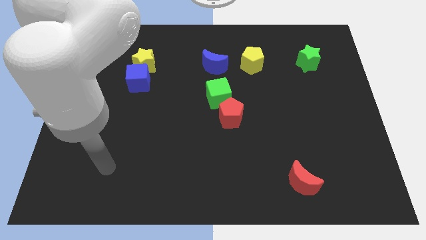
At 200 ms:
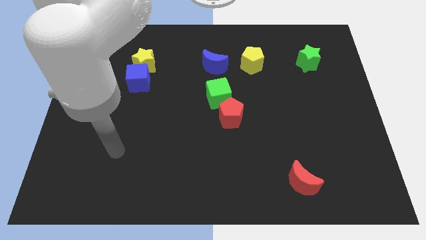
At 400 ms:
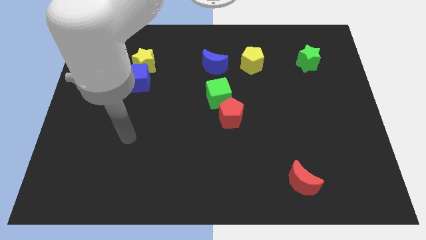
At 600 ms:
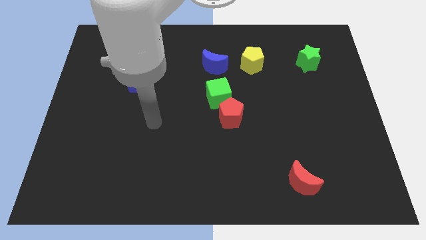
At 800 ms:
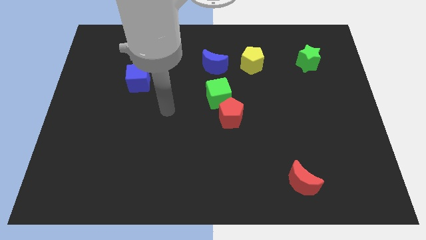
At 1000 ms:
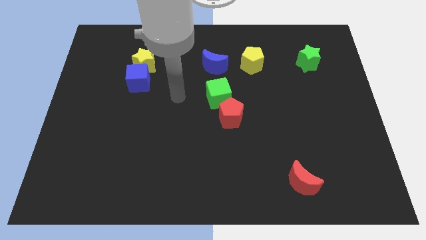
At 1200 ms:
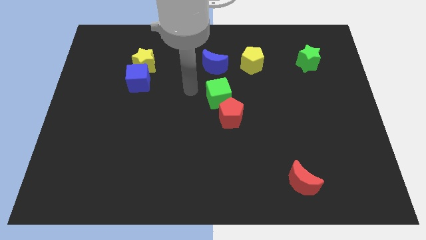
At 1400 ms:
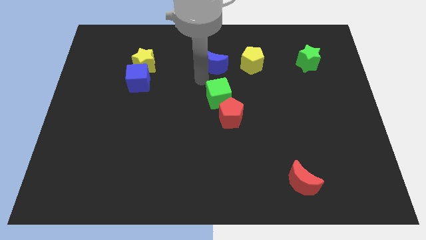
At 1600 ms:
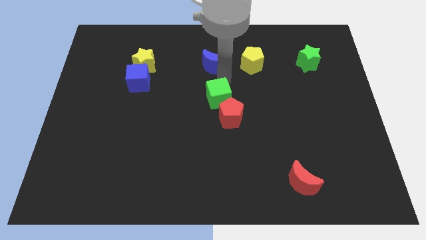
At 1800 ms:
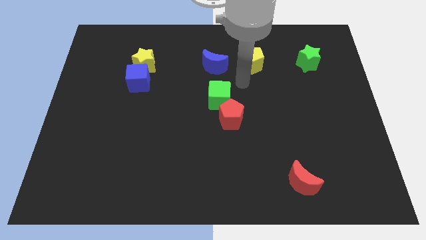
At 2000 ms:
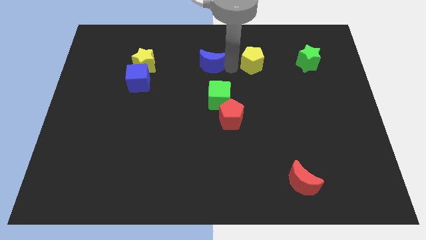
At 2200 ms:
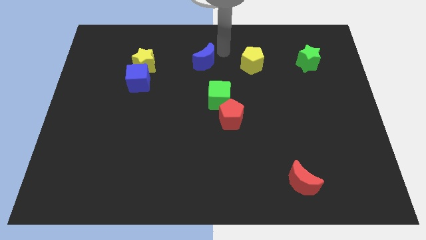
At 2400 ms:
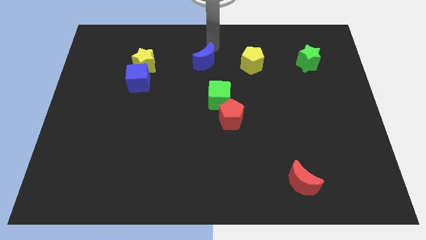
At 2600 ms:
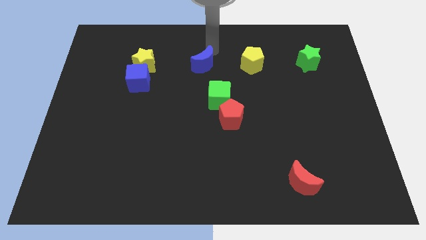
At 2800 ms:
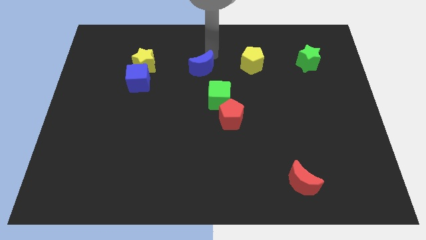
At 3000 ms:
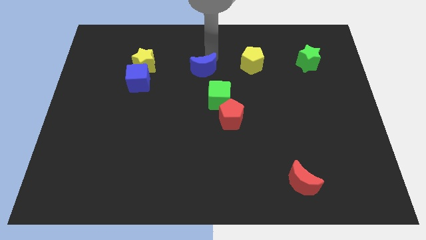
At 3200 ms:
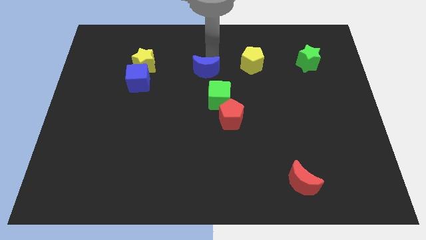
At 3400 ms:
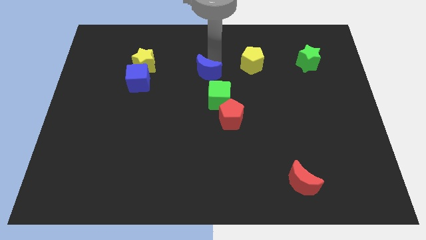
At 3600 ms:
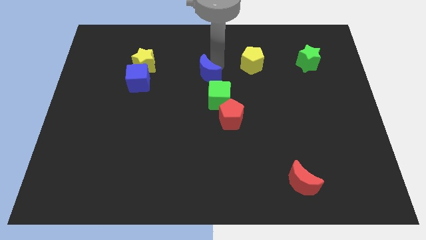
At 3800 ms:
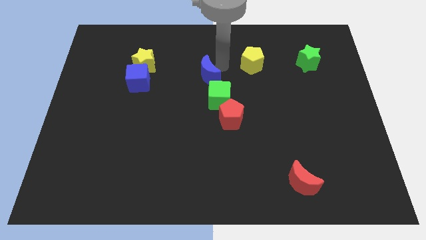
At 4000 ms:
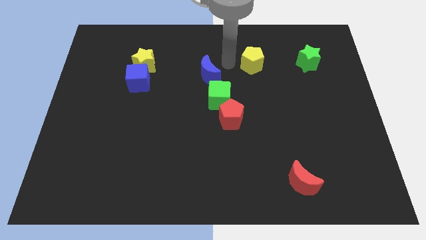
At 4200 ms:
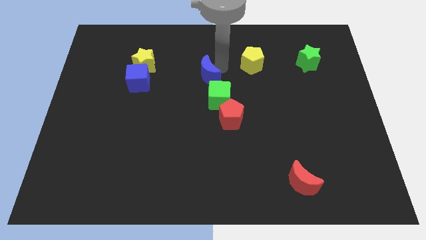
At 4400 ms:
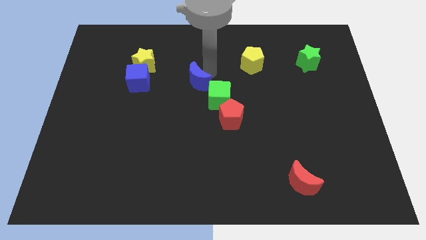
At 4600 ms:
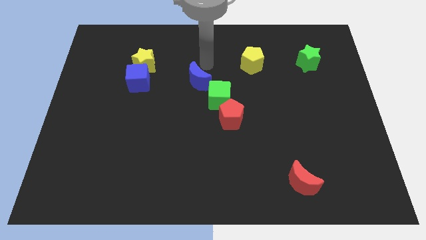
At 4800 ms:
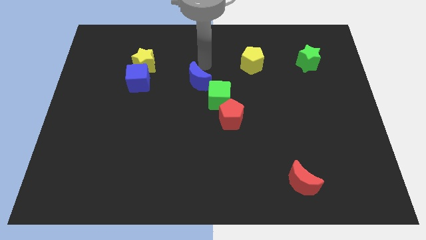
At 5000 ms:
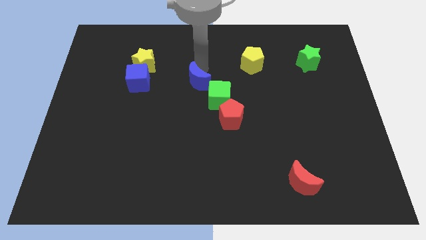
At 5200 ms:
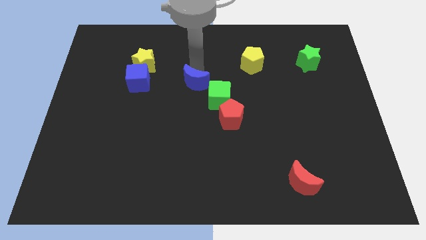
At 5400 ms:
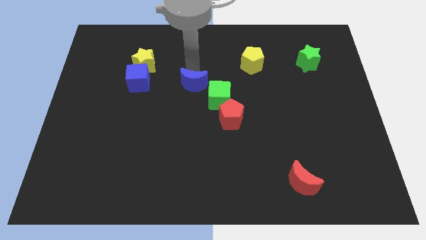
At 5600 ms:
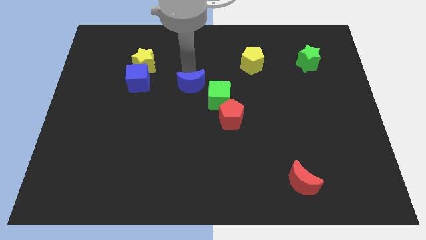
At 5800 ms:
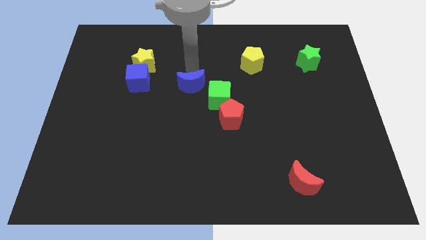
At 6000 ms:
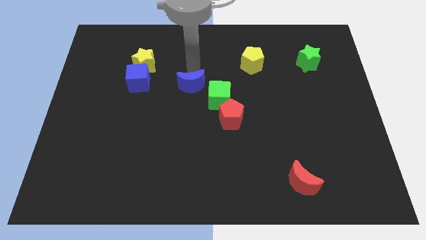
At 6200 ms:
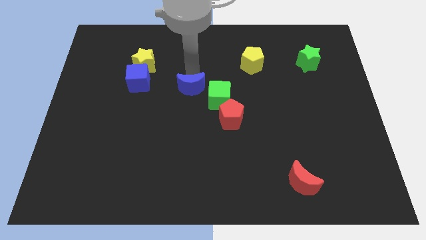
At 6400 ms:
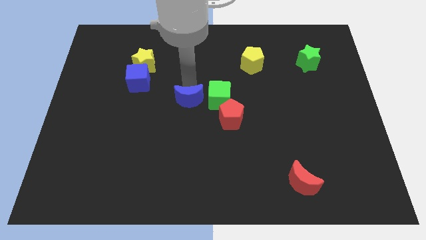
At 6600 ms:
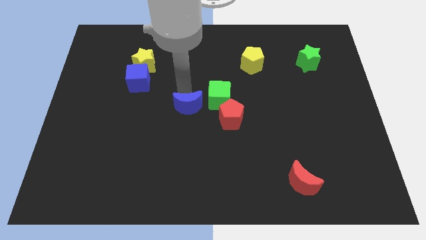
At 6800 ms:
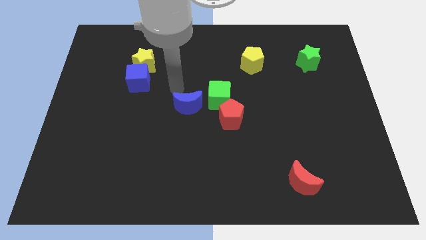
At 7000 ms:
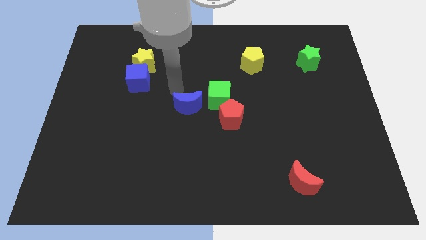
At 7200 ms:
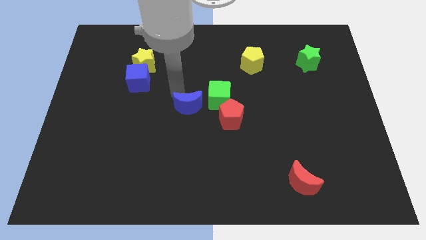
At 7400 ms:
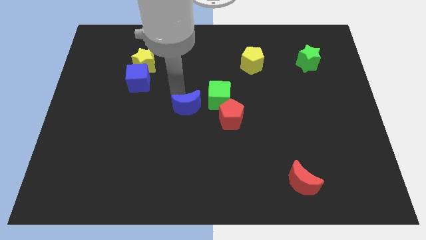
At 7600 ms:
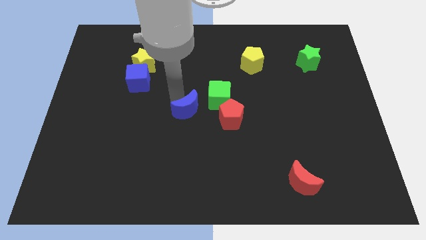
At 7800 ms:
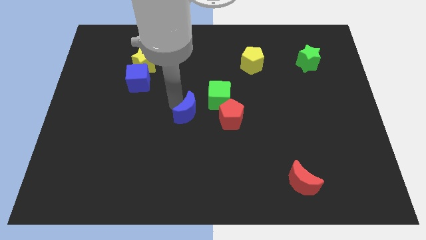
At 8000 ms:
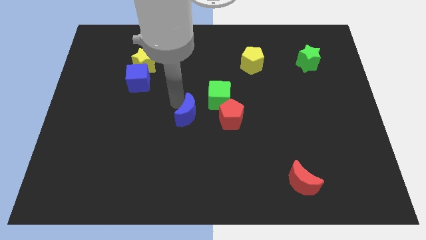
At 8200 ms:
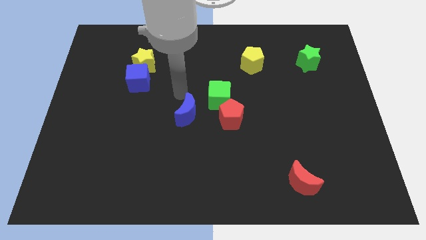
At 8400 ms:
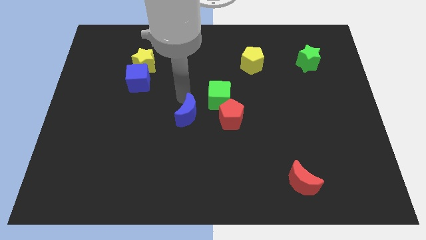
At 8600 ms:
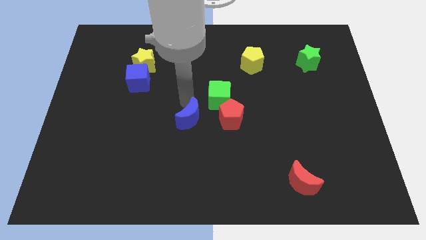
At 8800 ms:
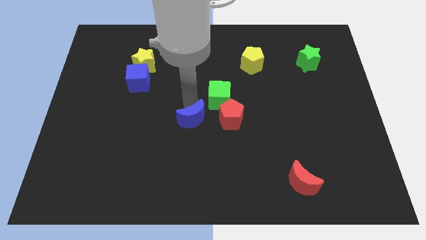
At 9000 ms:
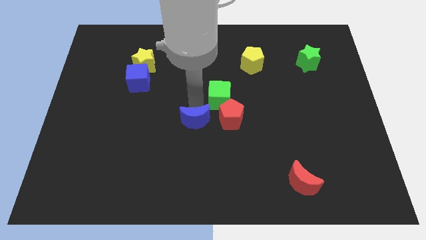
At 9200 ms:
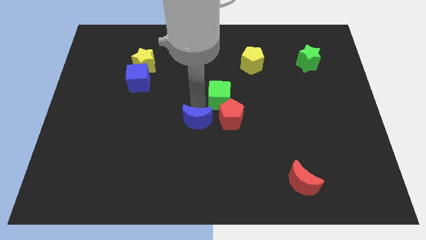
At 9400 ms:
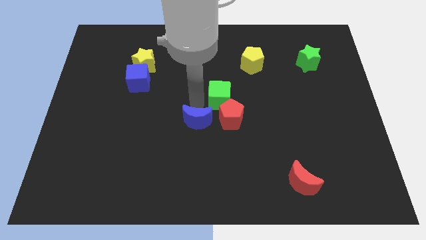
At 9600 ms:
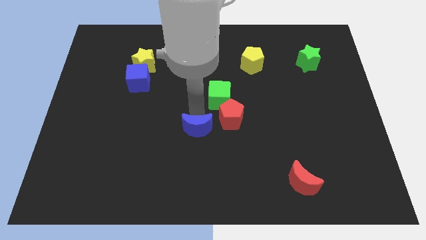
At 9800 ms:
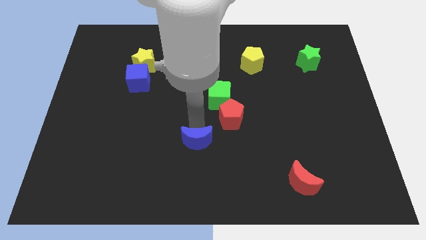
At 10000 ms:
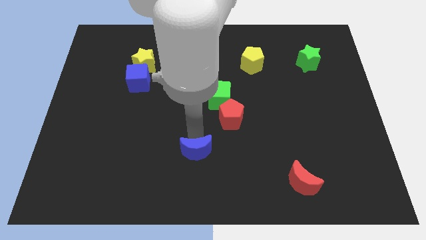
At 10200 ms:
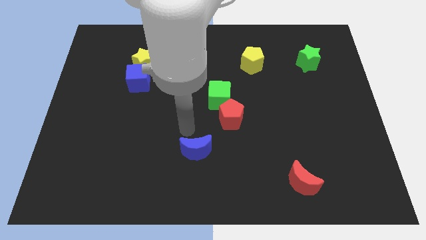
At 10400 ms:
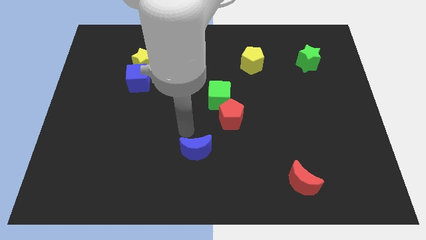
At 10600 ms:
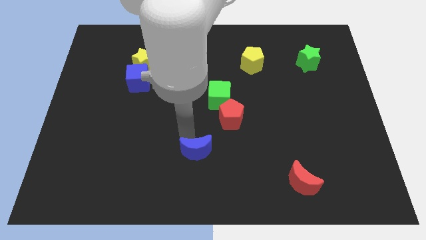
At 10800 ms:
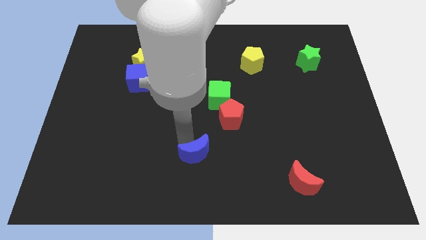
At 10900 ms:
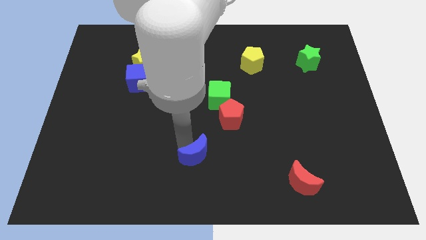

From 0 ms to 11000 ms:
put the blue moon to the bottom side
